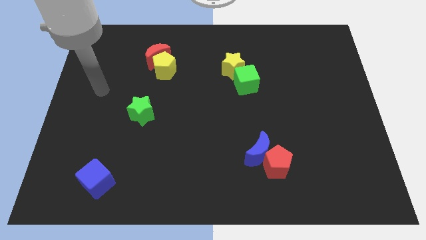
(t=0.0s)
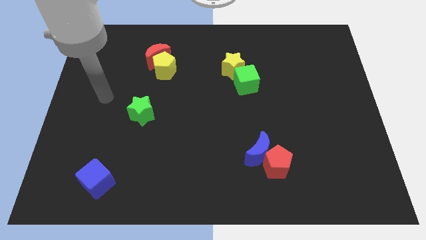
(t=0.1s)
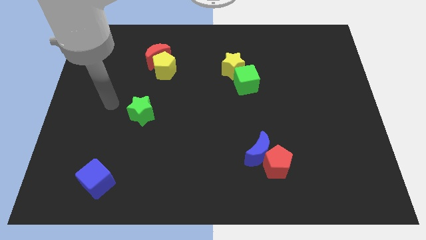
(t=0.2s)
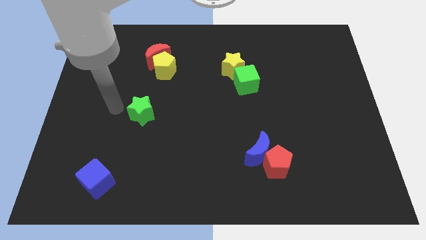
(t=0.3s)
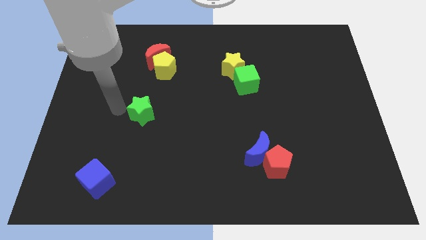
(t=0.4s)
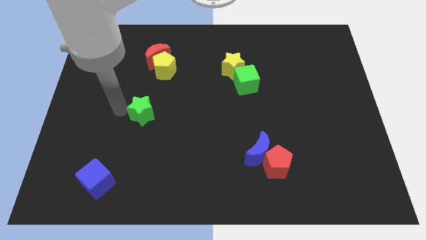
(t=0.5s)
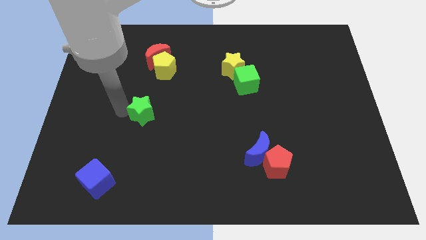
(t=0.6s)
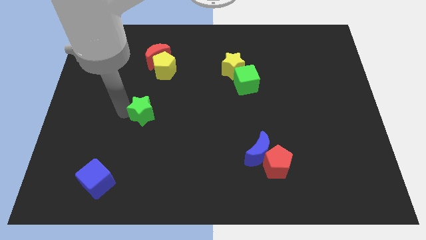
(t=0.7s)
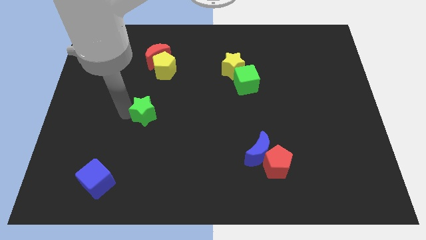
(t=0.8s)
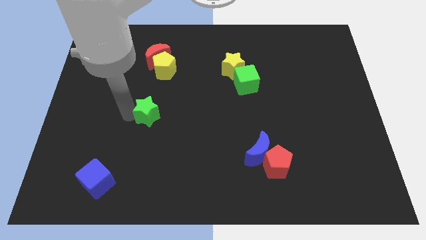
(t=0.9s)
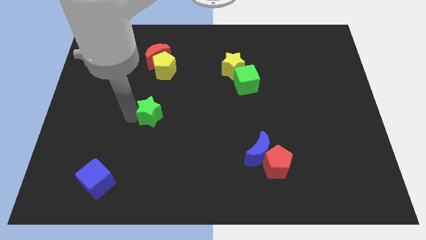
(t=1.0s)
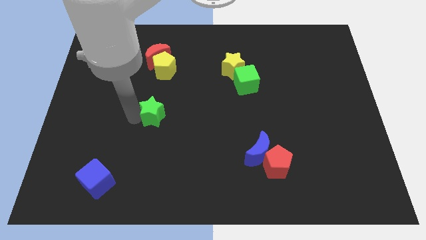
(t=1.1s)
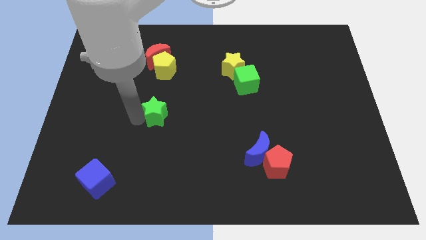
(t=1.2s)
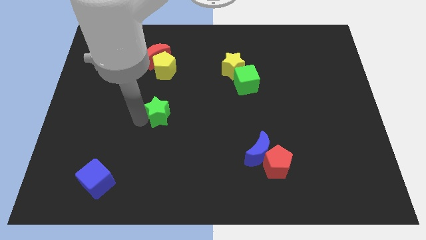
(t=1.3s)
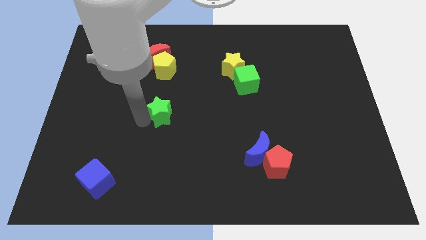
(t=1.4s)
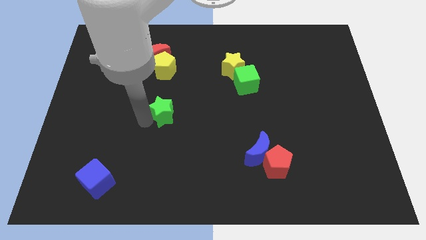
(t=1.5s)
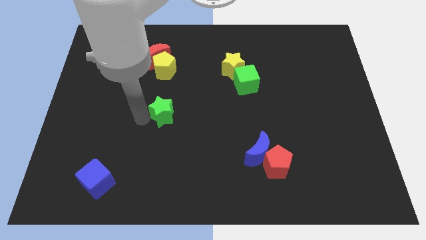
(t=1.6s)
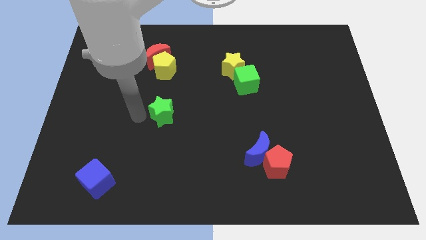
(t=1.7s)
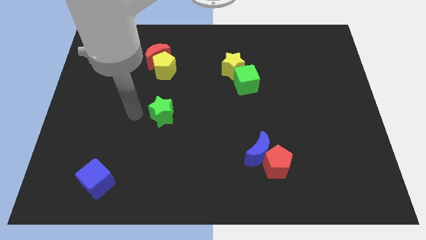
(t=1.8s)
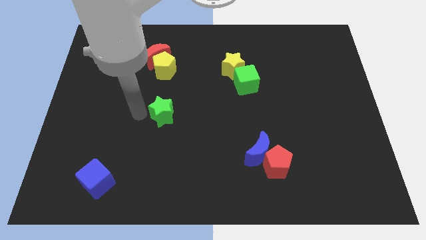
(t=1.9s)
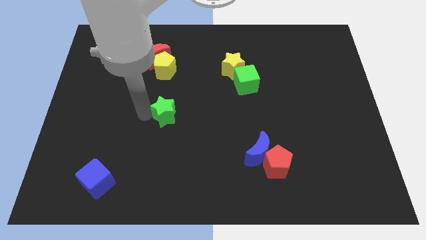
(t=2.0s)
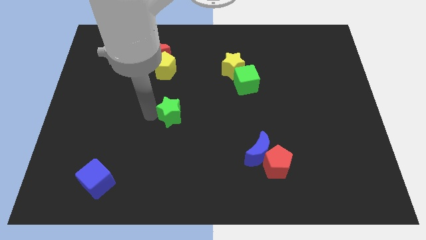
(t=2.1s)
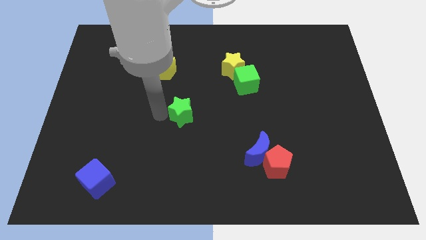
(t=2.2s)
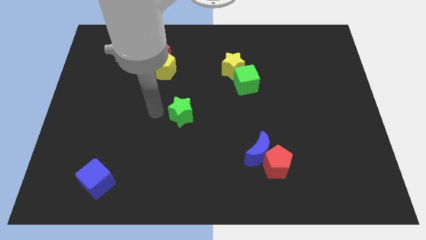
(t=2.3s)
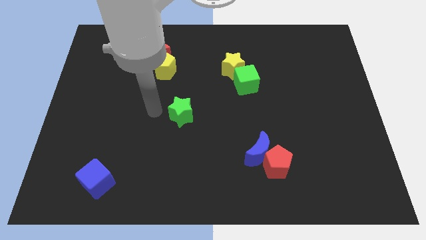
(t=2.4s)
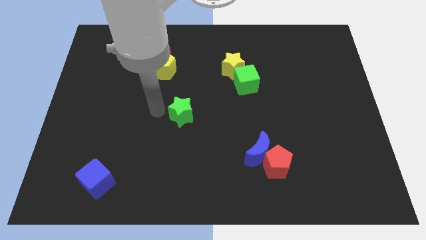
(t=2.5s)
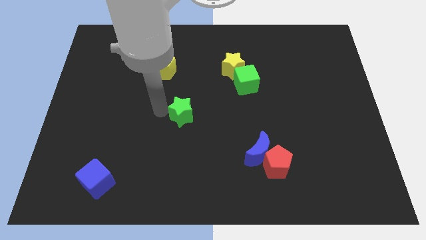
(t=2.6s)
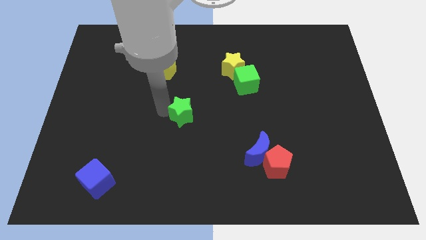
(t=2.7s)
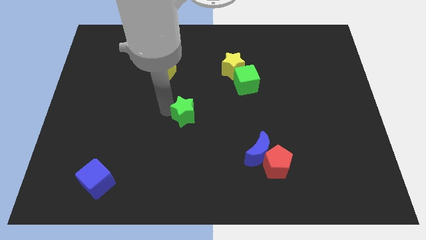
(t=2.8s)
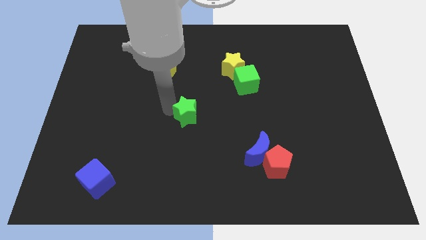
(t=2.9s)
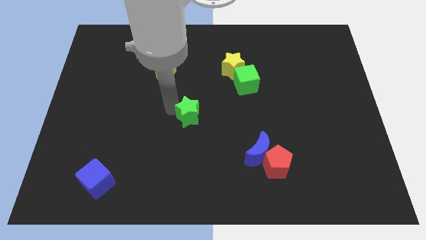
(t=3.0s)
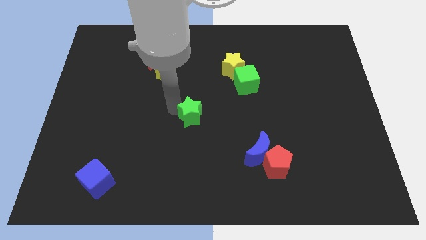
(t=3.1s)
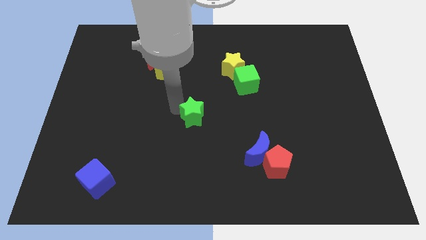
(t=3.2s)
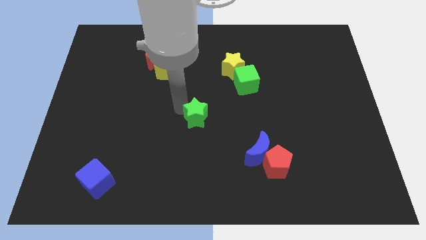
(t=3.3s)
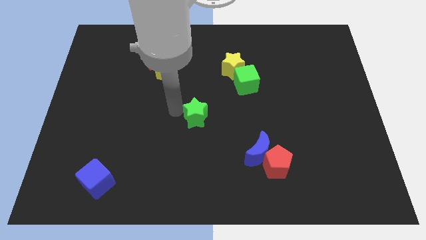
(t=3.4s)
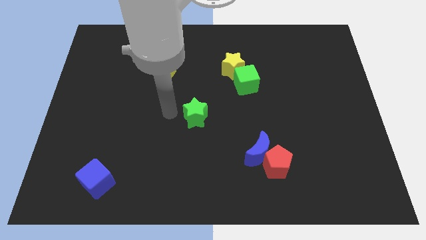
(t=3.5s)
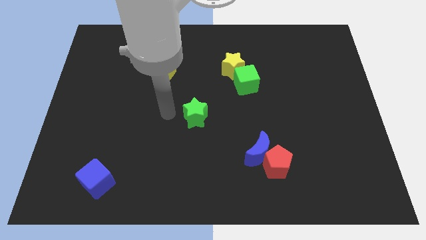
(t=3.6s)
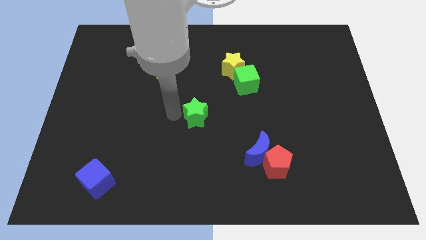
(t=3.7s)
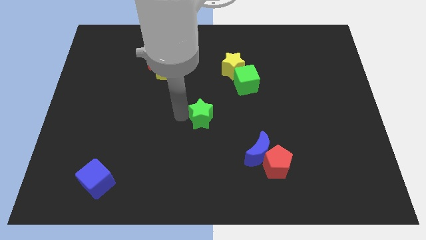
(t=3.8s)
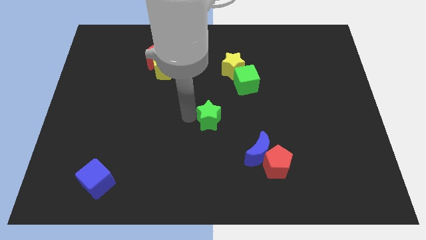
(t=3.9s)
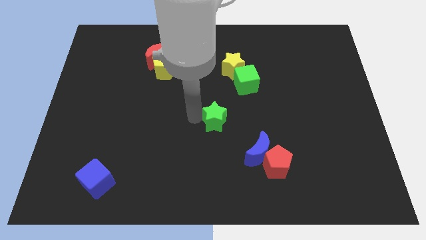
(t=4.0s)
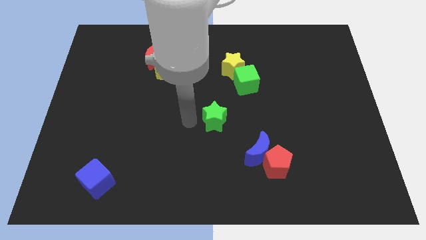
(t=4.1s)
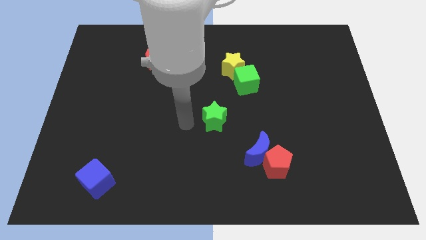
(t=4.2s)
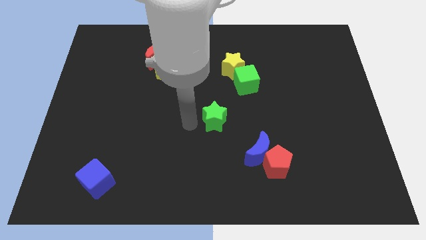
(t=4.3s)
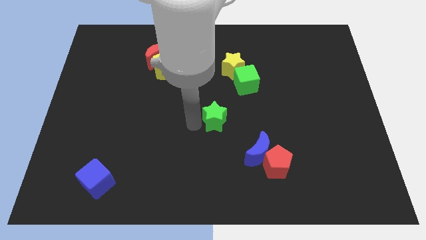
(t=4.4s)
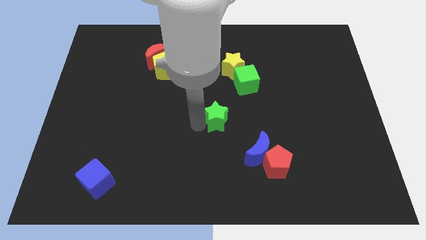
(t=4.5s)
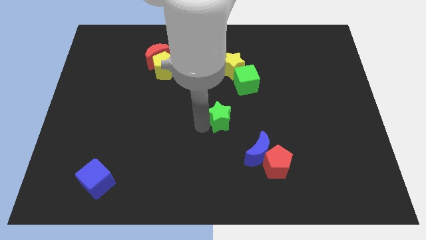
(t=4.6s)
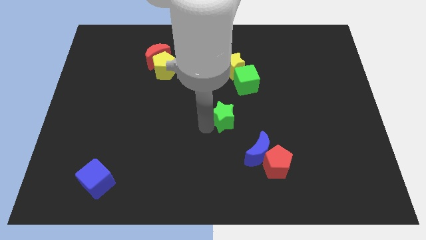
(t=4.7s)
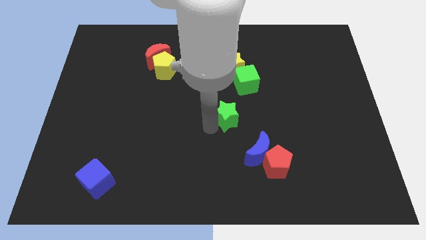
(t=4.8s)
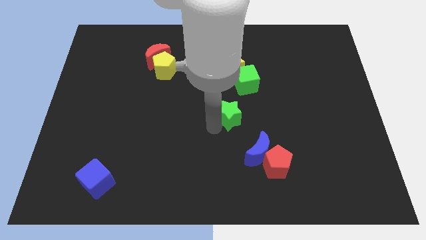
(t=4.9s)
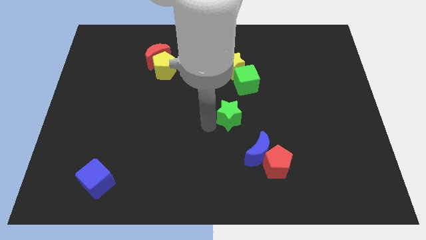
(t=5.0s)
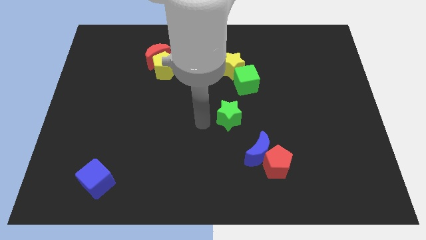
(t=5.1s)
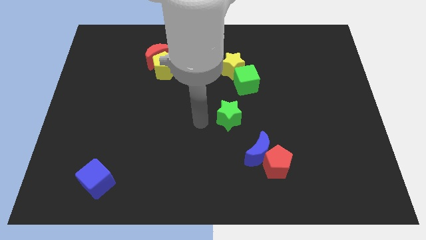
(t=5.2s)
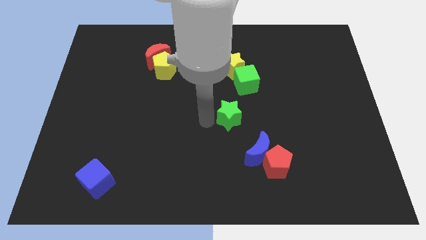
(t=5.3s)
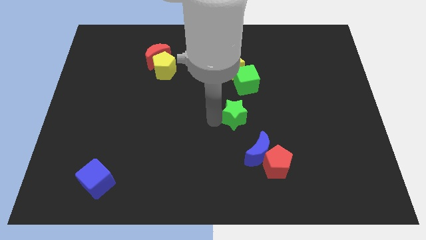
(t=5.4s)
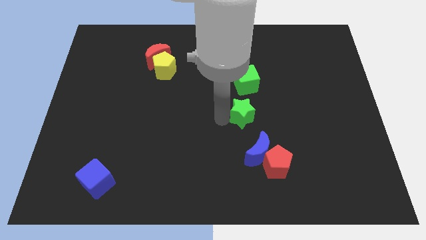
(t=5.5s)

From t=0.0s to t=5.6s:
slide the green star to the top of the blue moon
